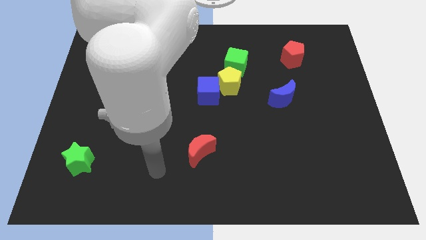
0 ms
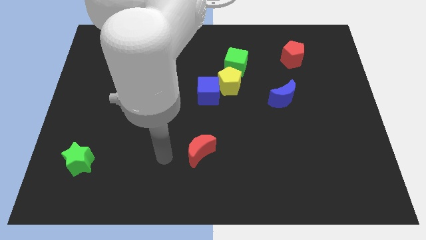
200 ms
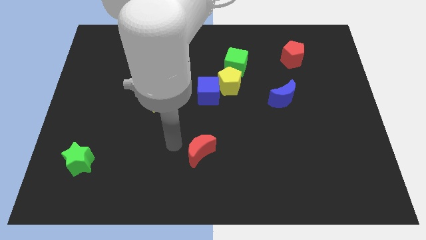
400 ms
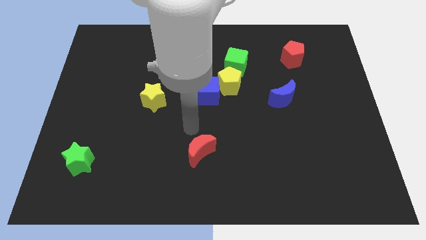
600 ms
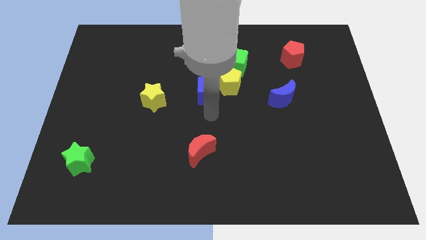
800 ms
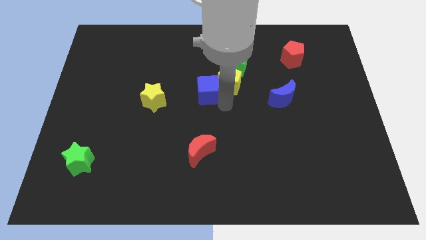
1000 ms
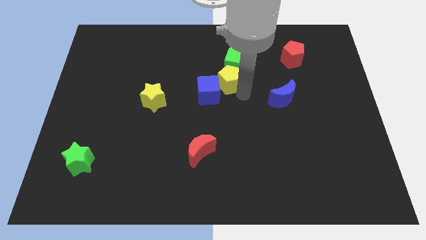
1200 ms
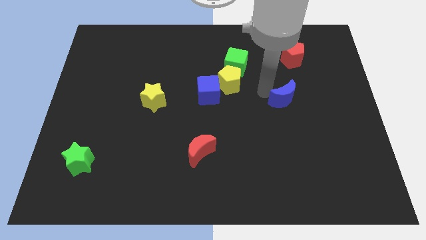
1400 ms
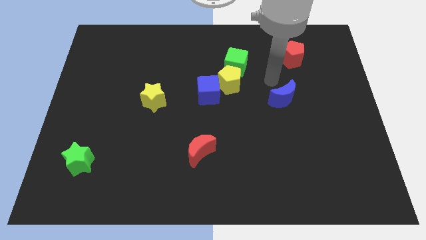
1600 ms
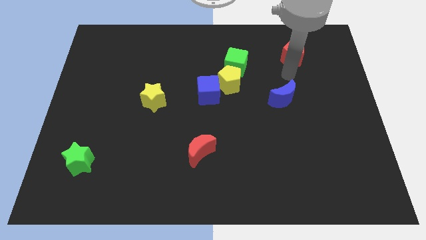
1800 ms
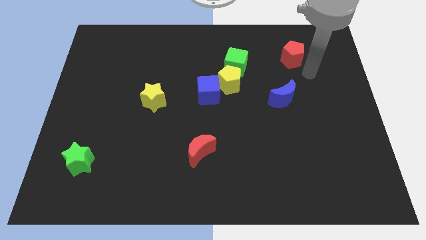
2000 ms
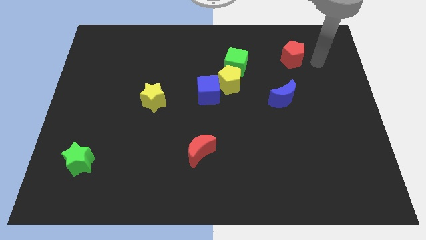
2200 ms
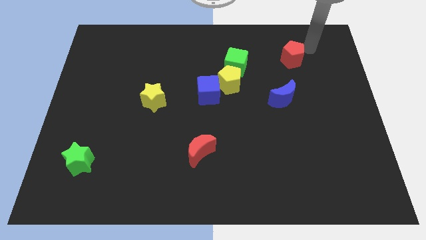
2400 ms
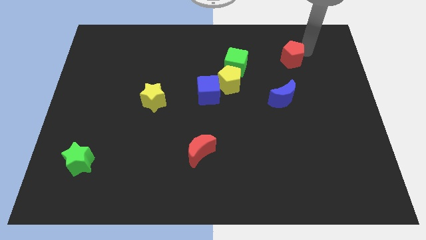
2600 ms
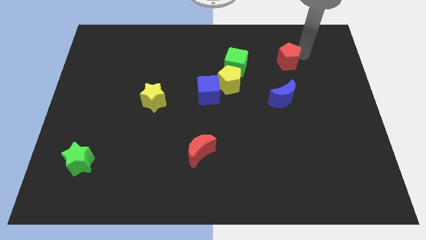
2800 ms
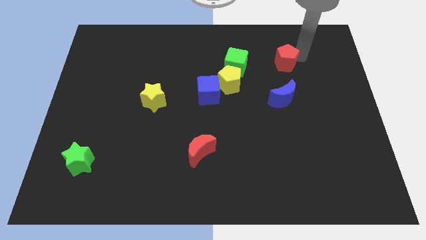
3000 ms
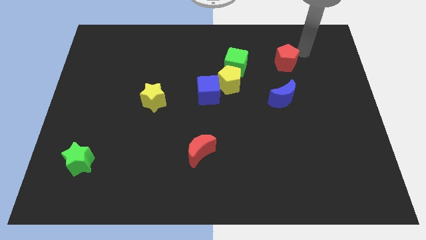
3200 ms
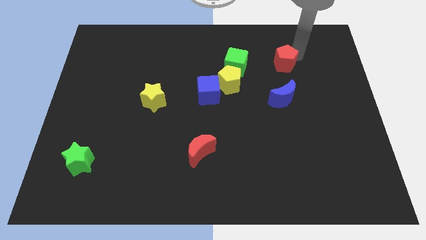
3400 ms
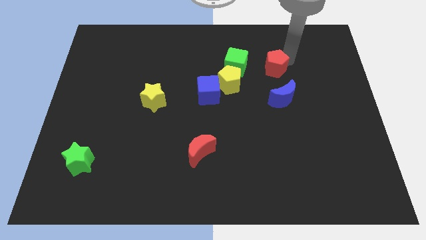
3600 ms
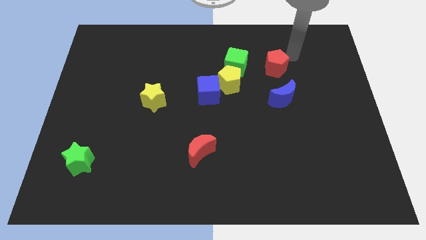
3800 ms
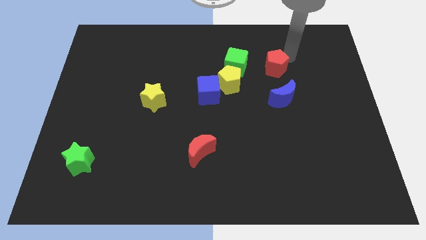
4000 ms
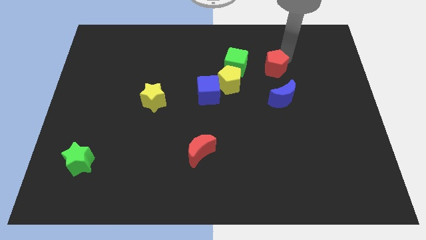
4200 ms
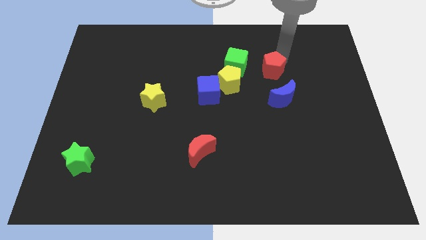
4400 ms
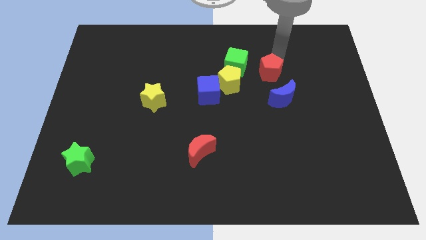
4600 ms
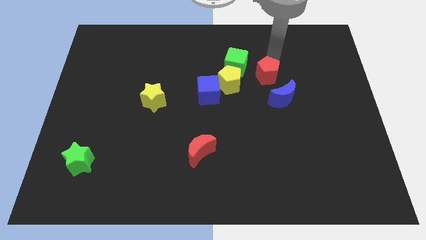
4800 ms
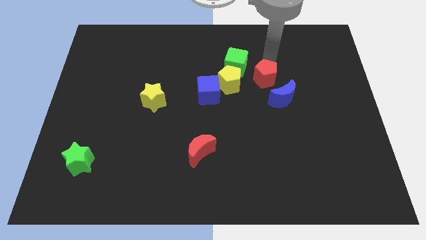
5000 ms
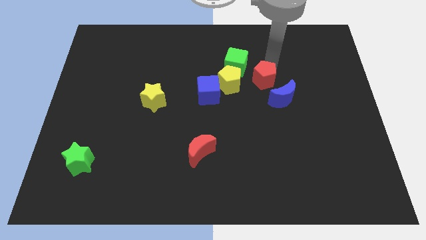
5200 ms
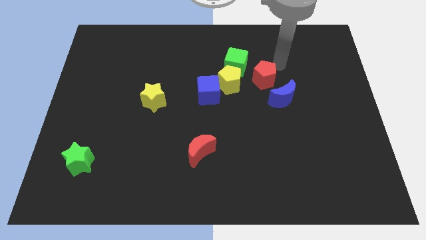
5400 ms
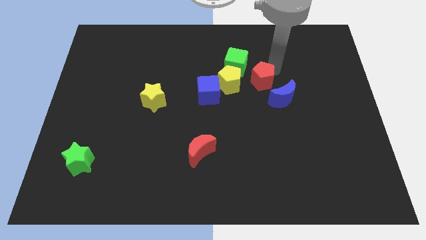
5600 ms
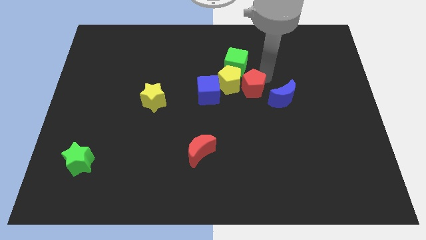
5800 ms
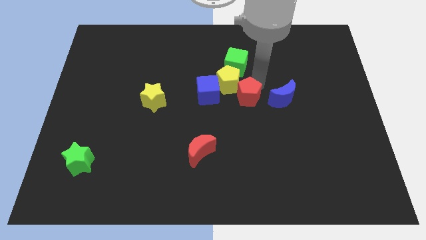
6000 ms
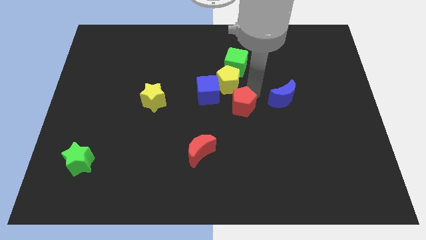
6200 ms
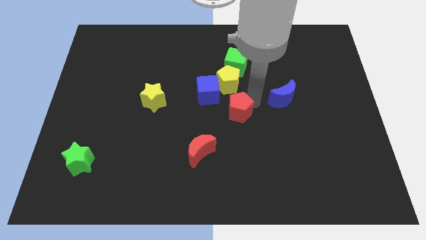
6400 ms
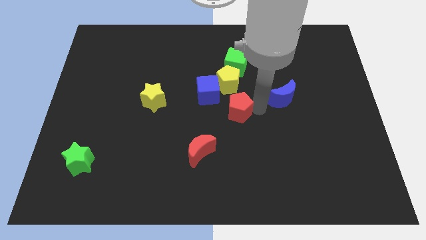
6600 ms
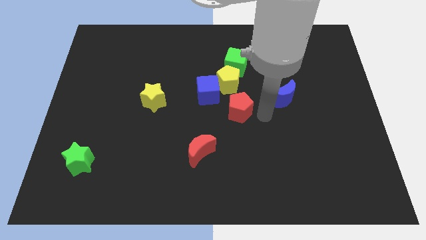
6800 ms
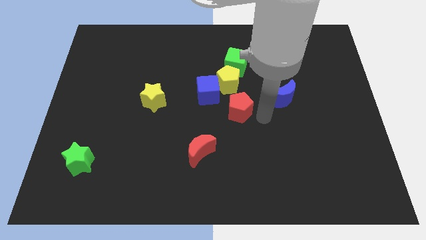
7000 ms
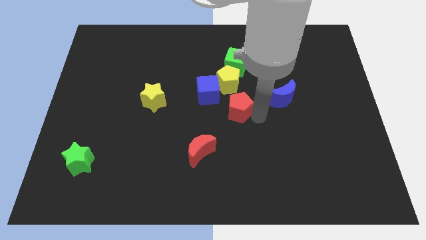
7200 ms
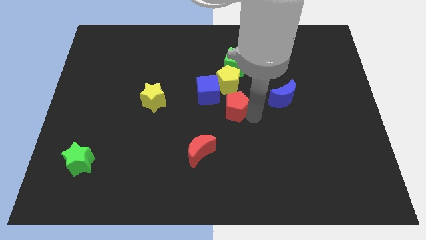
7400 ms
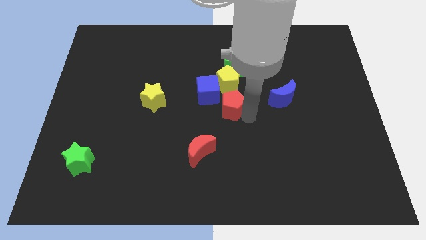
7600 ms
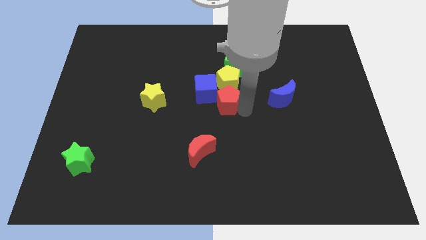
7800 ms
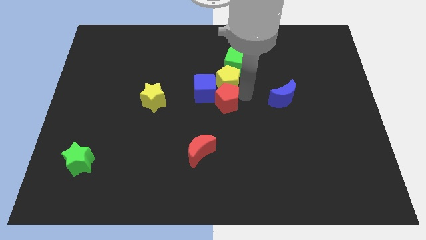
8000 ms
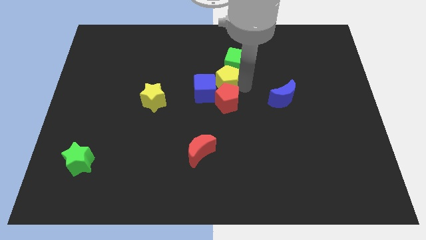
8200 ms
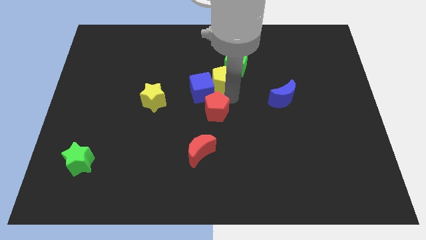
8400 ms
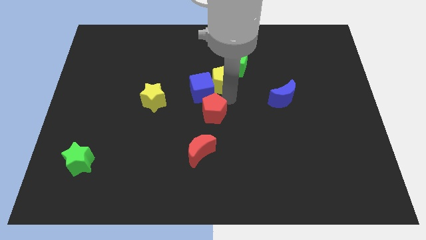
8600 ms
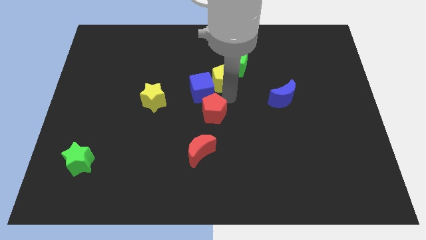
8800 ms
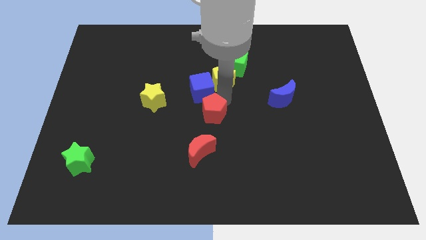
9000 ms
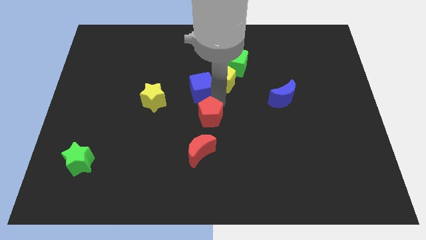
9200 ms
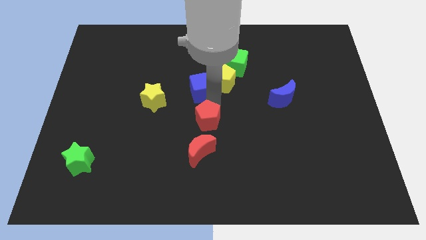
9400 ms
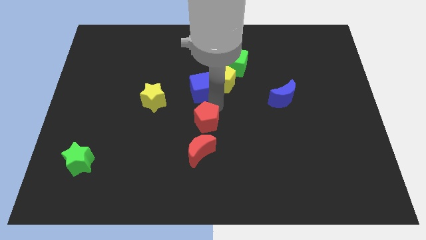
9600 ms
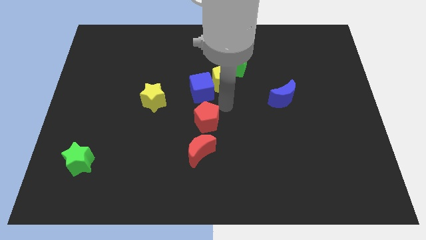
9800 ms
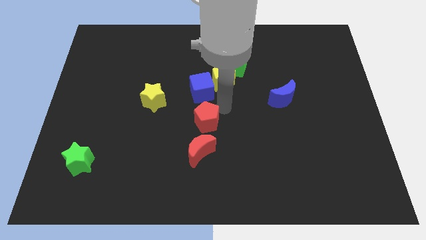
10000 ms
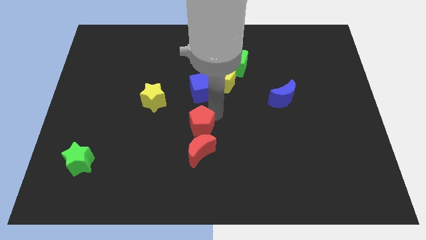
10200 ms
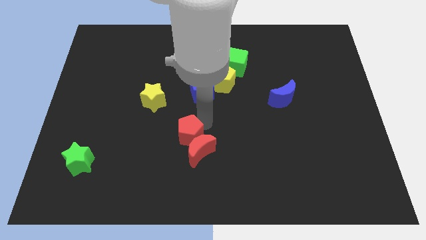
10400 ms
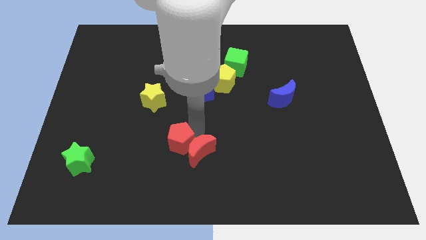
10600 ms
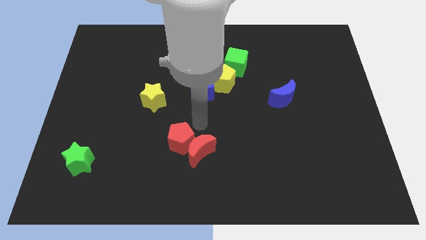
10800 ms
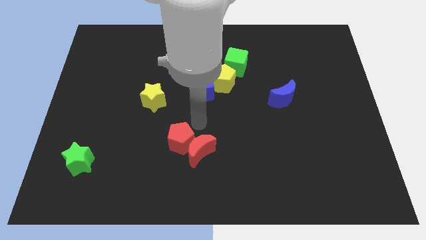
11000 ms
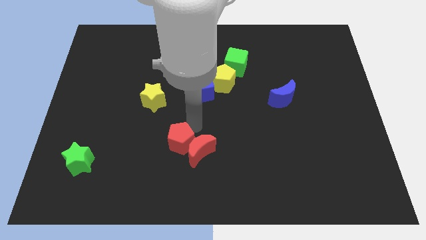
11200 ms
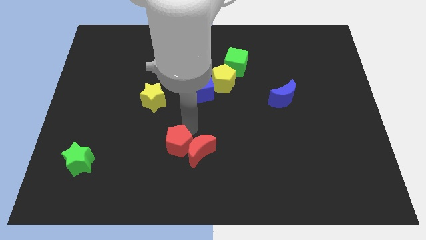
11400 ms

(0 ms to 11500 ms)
put the red pentagon to the bottom left of the red moon

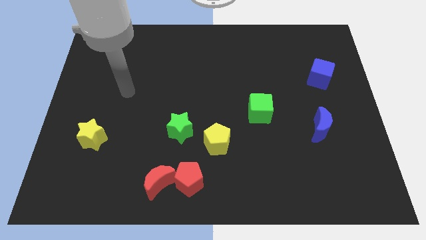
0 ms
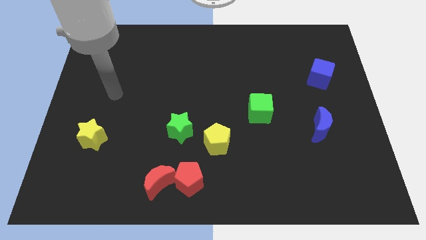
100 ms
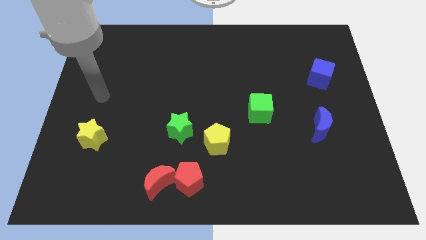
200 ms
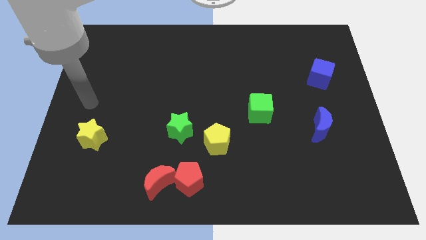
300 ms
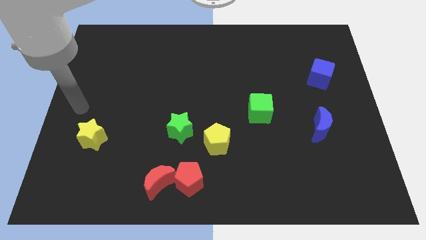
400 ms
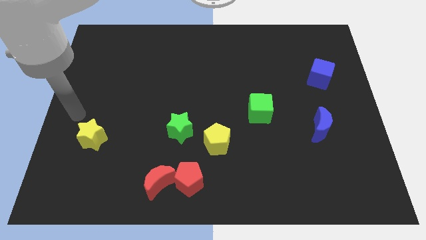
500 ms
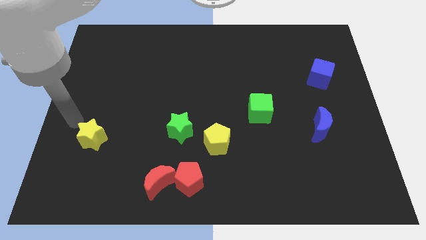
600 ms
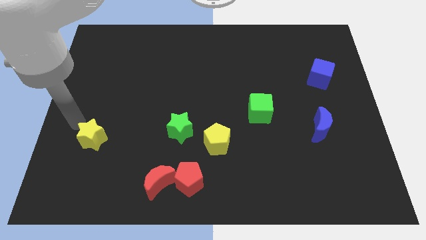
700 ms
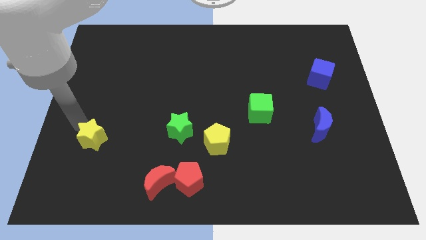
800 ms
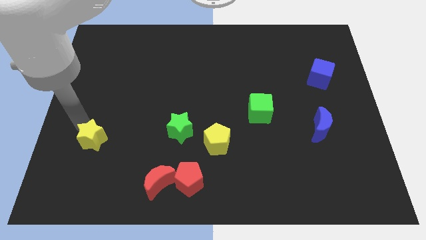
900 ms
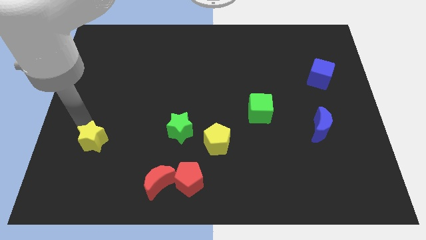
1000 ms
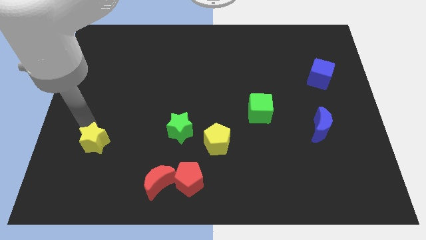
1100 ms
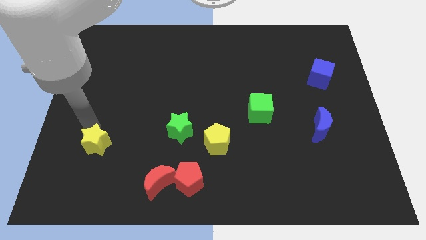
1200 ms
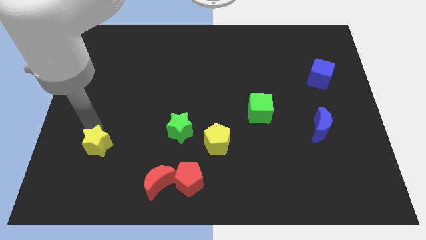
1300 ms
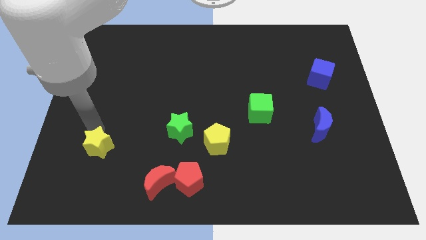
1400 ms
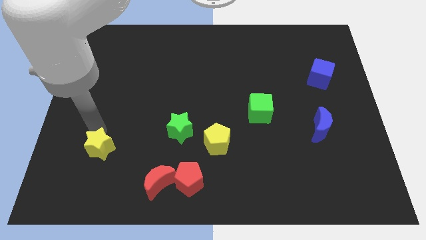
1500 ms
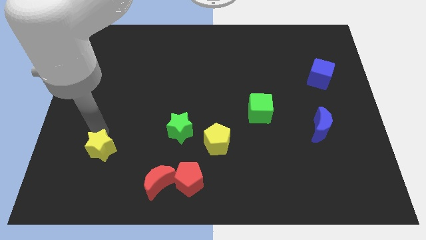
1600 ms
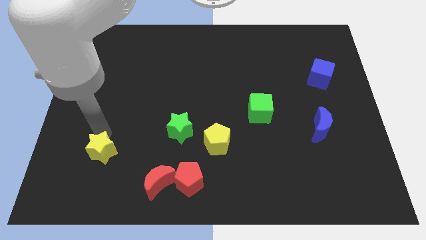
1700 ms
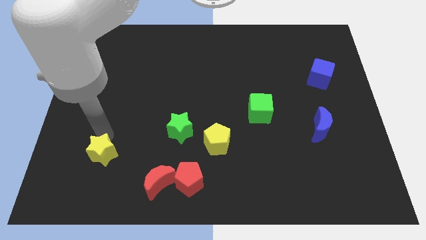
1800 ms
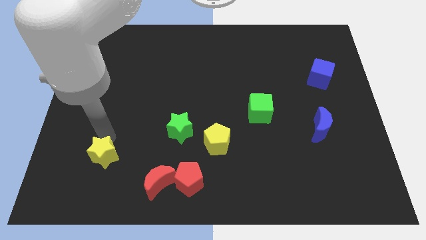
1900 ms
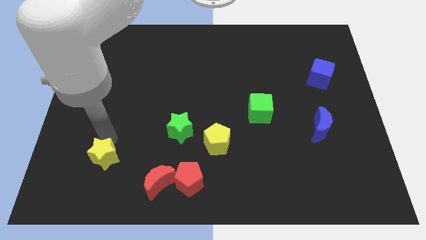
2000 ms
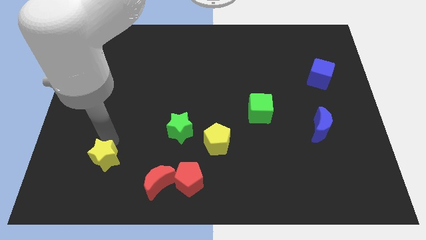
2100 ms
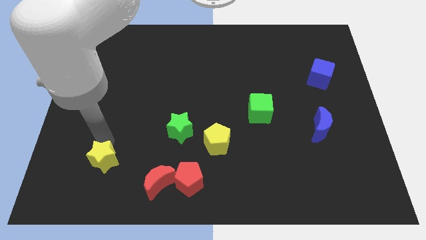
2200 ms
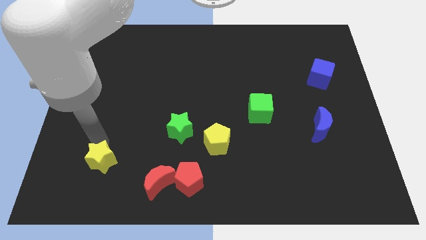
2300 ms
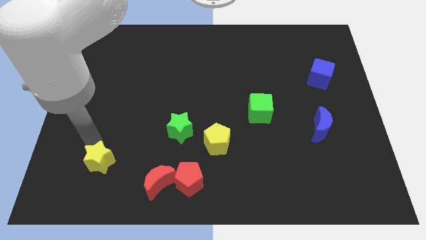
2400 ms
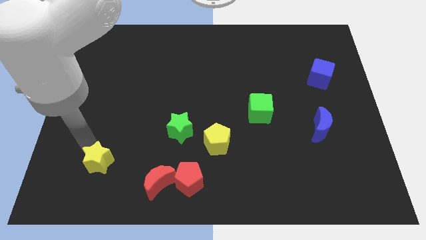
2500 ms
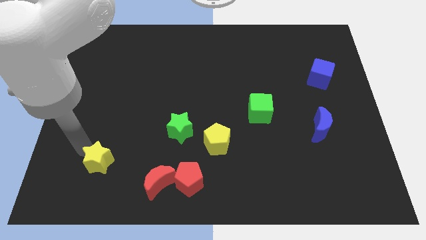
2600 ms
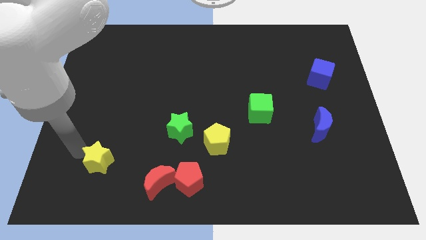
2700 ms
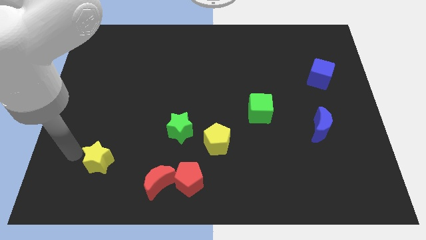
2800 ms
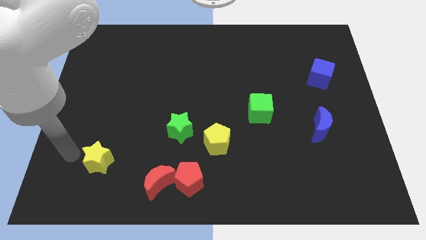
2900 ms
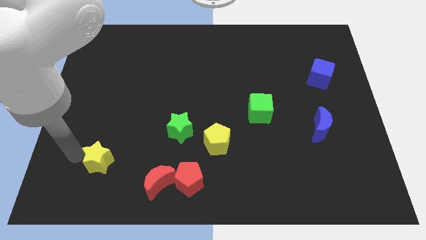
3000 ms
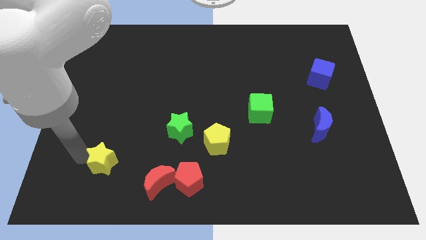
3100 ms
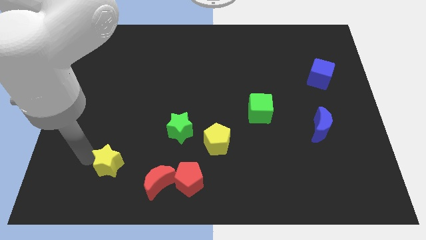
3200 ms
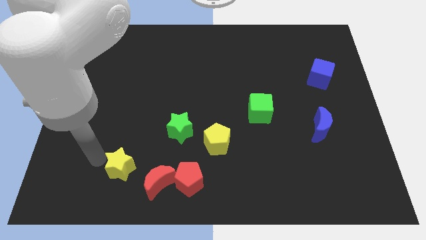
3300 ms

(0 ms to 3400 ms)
push the yellow star to the left side of the red pentagon
